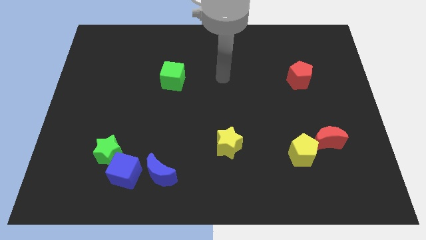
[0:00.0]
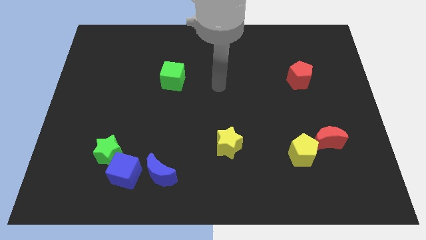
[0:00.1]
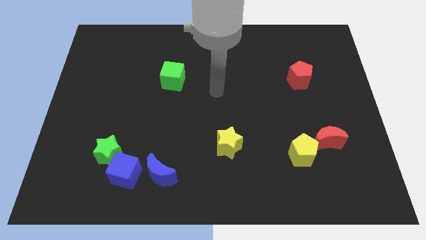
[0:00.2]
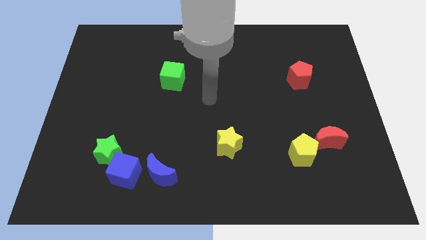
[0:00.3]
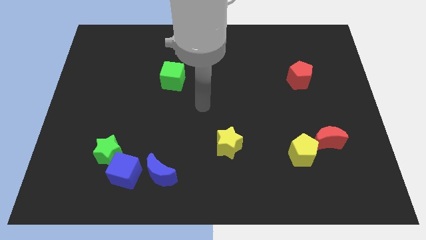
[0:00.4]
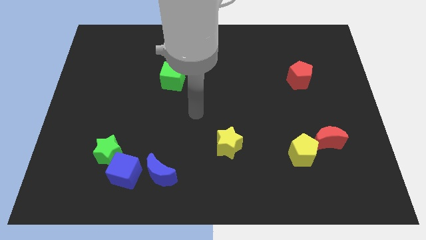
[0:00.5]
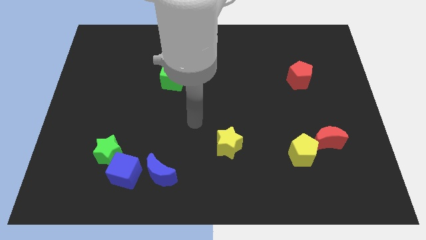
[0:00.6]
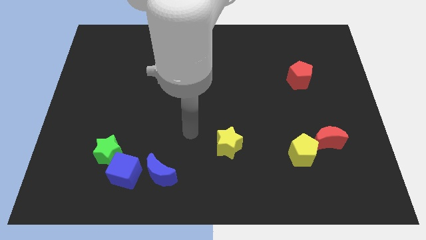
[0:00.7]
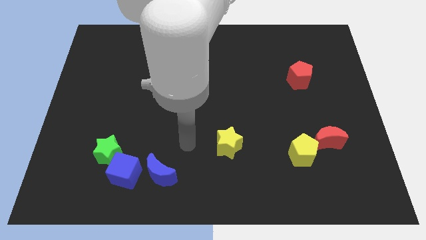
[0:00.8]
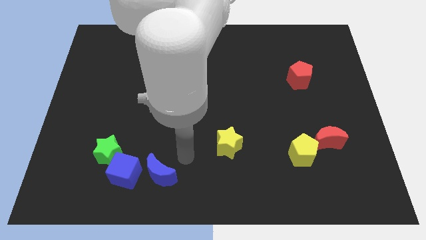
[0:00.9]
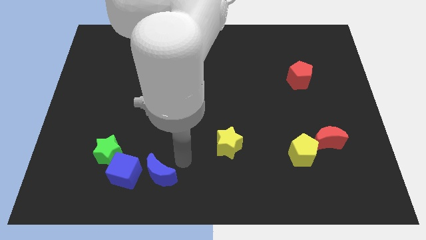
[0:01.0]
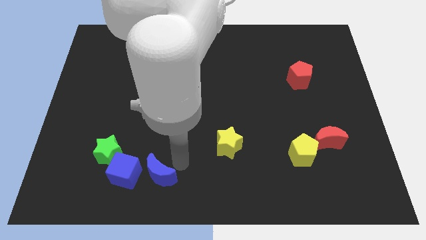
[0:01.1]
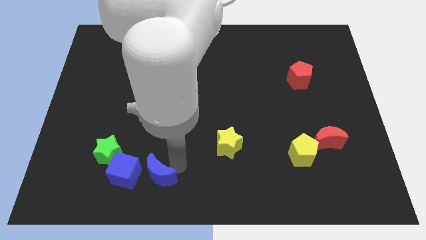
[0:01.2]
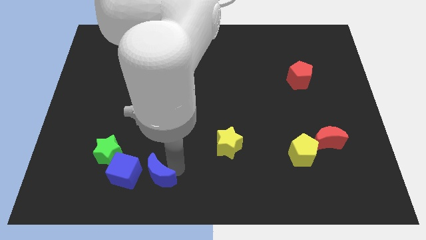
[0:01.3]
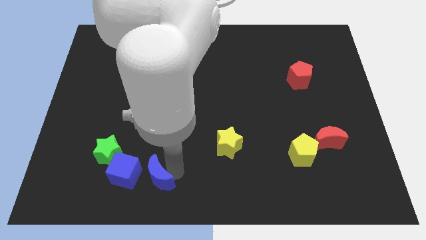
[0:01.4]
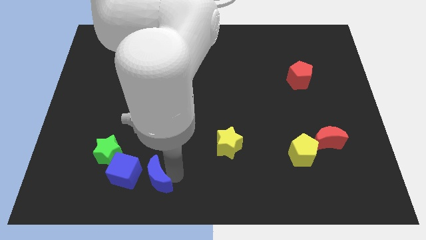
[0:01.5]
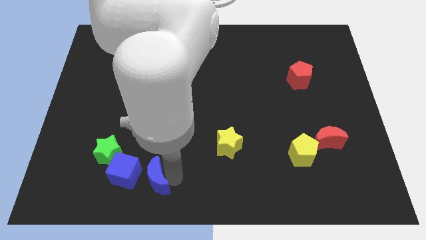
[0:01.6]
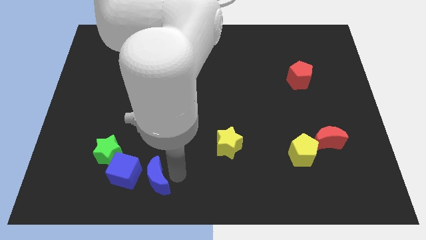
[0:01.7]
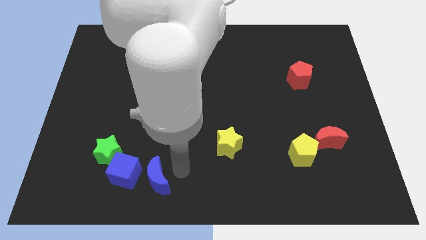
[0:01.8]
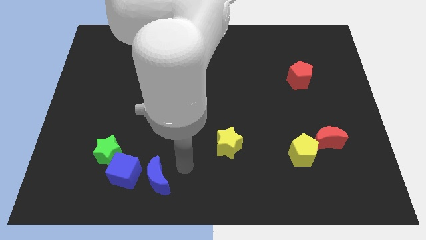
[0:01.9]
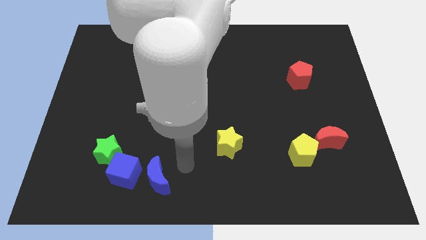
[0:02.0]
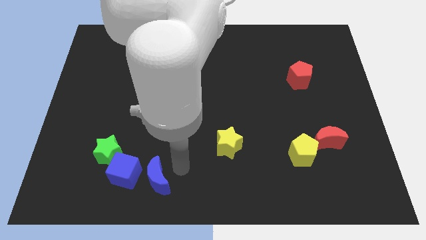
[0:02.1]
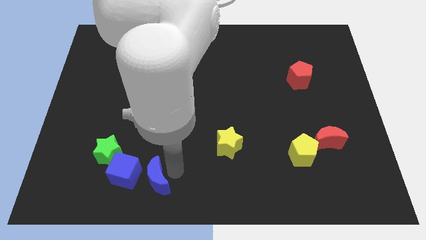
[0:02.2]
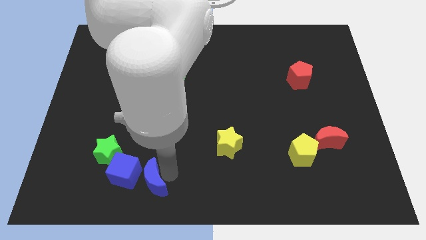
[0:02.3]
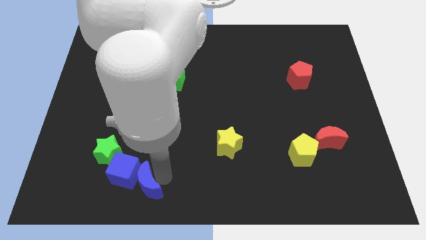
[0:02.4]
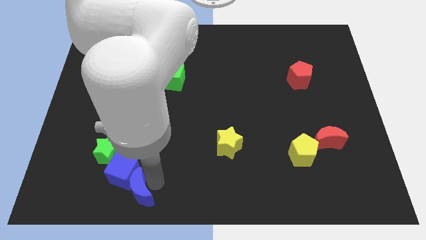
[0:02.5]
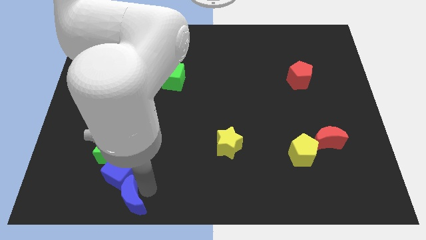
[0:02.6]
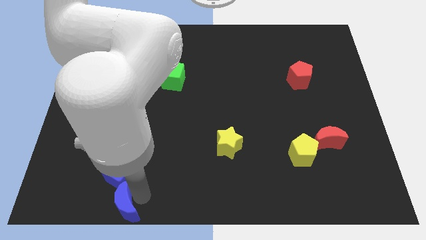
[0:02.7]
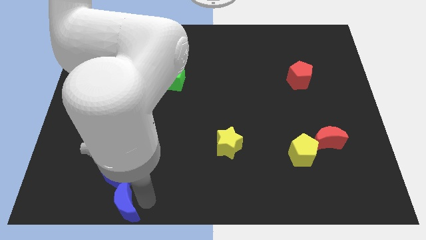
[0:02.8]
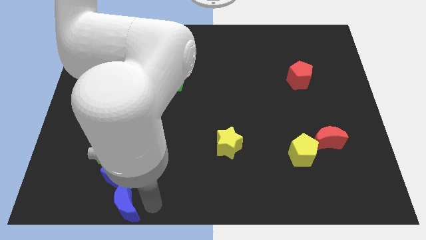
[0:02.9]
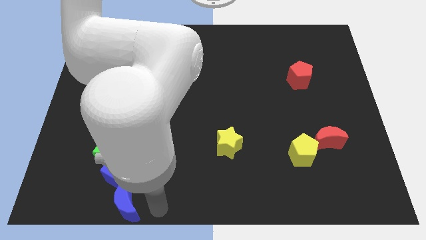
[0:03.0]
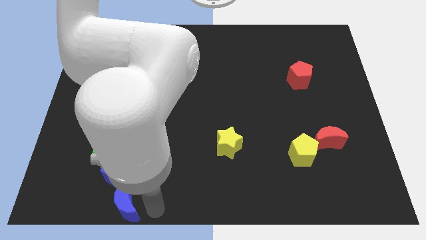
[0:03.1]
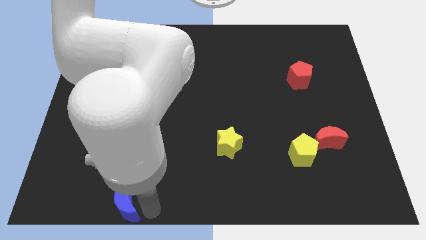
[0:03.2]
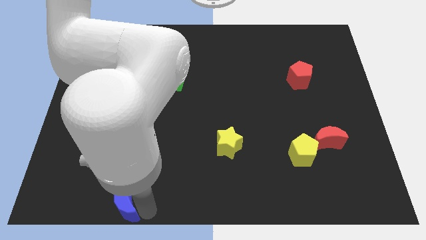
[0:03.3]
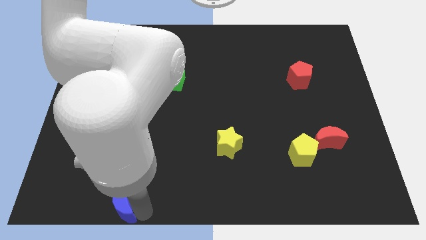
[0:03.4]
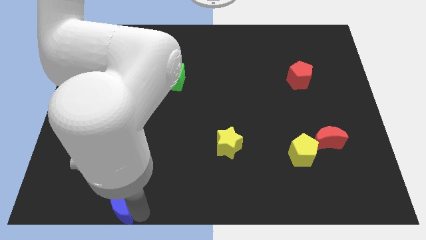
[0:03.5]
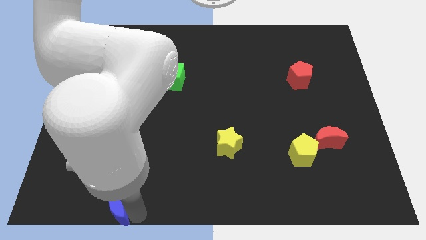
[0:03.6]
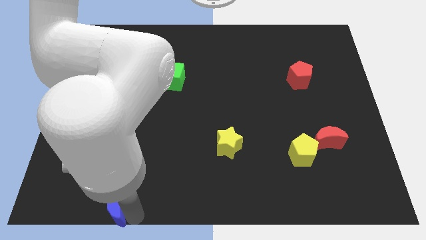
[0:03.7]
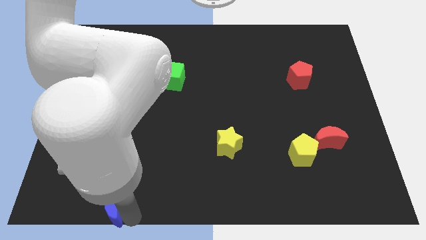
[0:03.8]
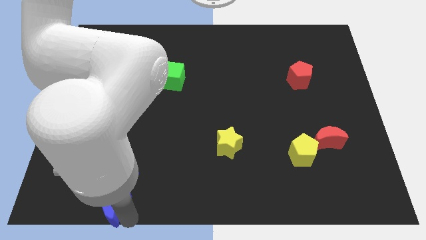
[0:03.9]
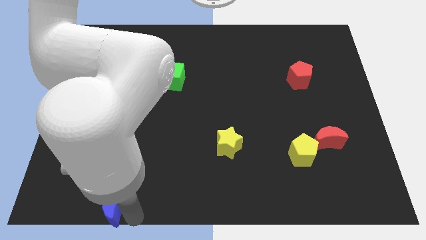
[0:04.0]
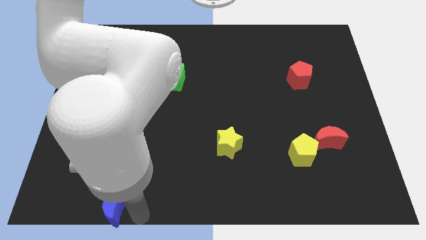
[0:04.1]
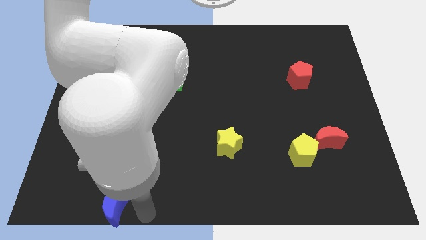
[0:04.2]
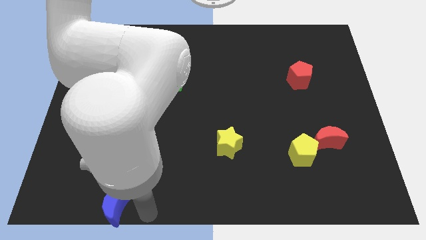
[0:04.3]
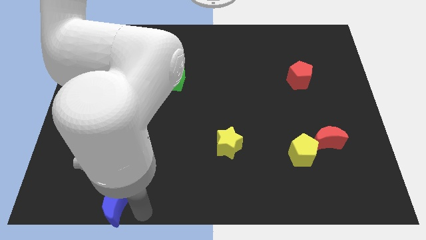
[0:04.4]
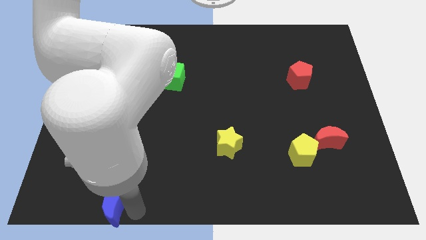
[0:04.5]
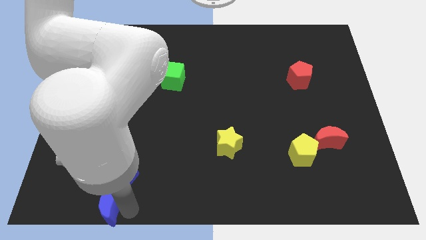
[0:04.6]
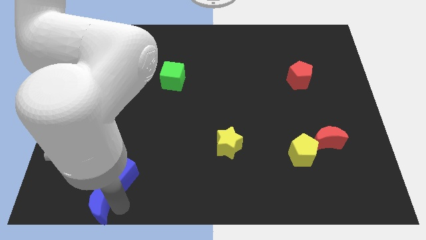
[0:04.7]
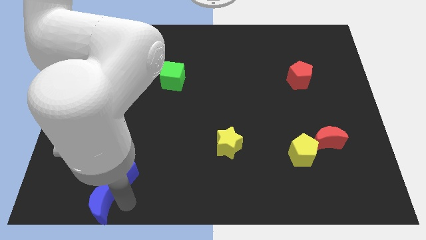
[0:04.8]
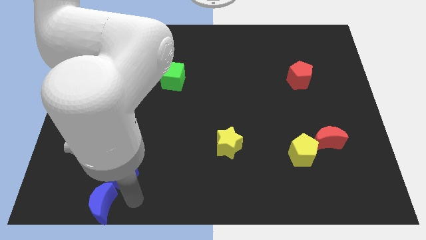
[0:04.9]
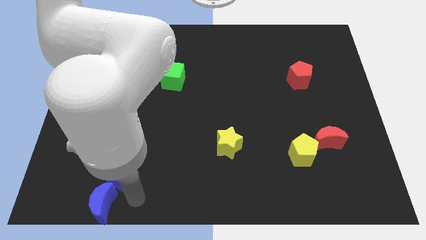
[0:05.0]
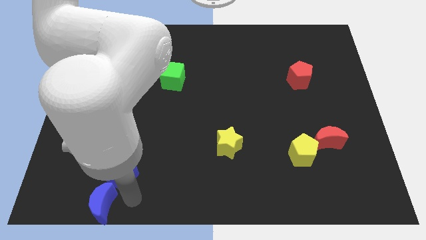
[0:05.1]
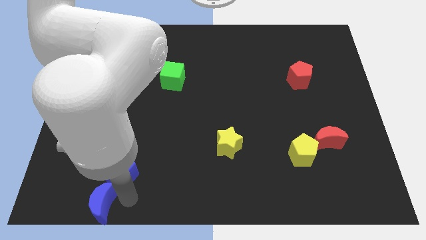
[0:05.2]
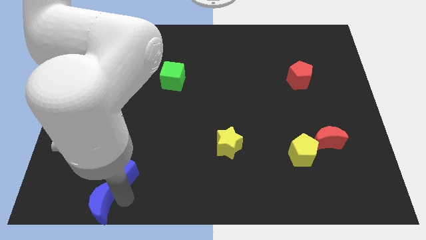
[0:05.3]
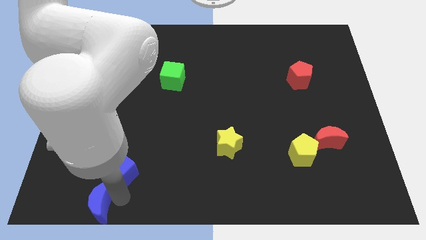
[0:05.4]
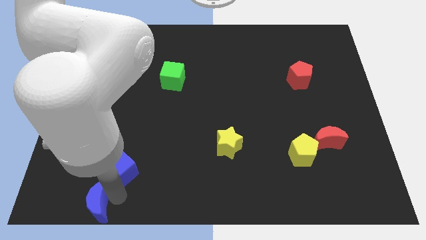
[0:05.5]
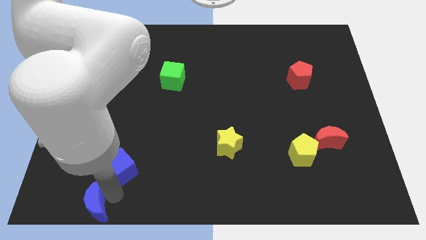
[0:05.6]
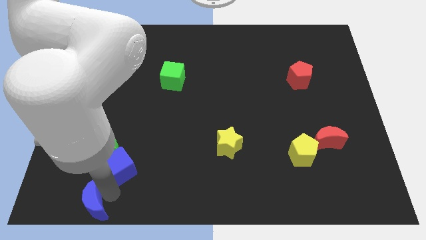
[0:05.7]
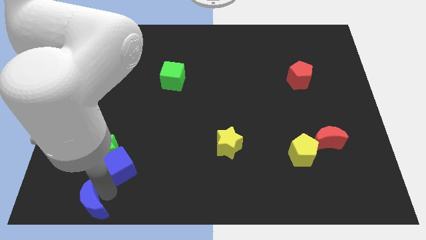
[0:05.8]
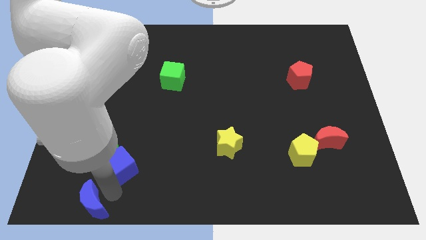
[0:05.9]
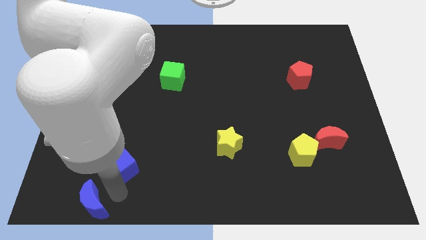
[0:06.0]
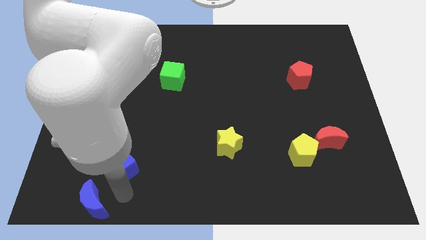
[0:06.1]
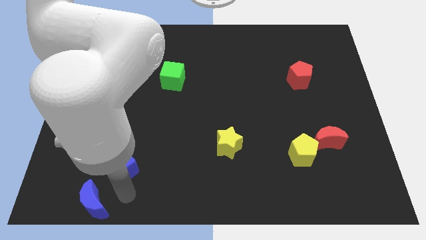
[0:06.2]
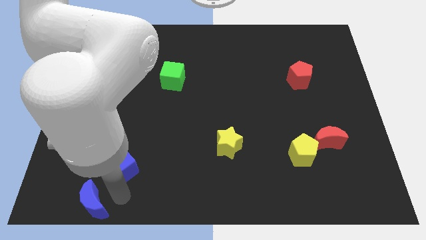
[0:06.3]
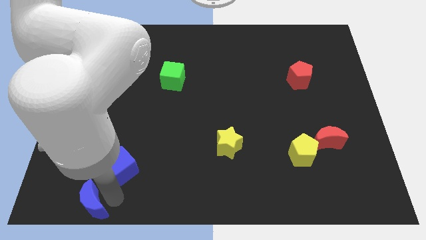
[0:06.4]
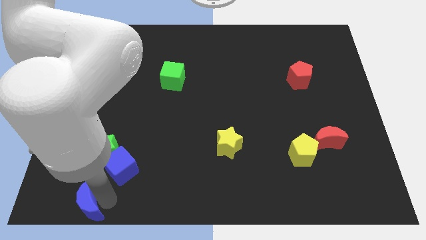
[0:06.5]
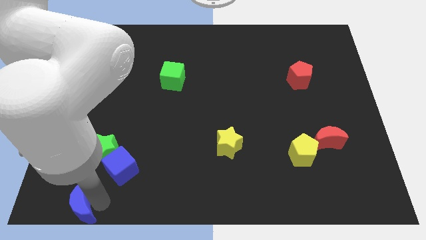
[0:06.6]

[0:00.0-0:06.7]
move the blue moon to the bottom left corner
